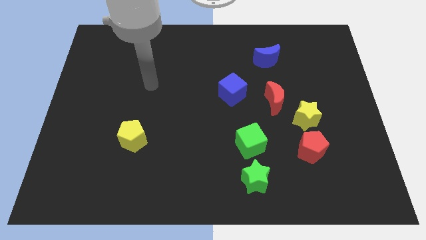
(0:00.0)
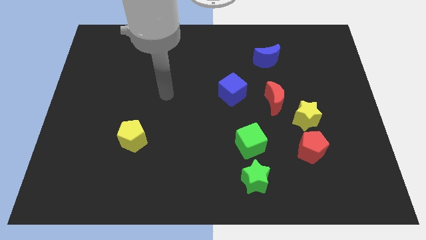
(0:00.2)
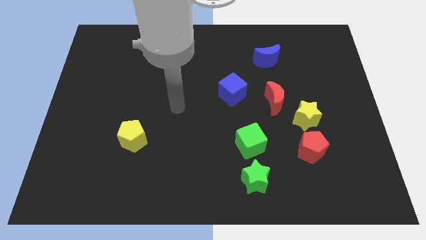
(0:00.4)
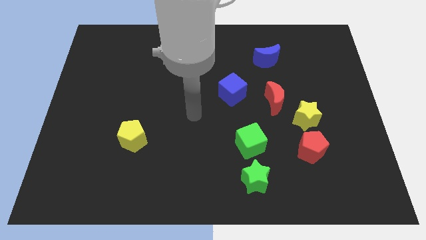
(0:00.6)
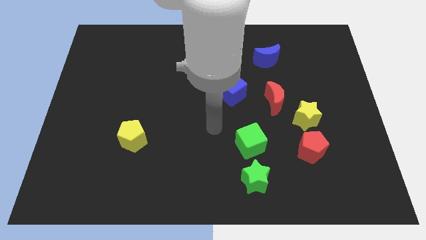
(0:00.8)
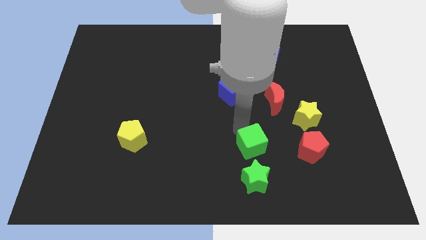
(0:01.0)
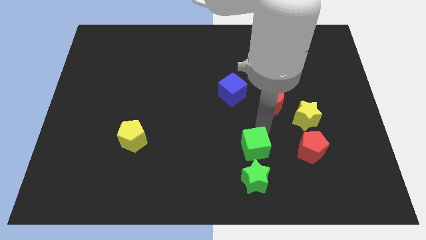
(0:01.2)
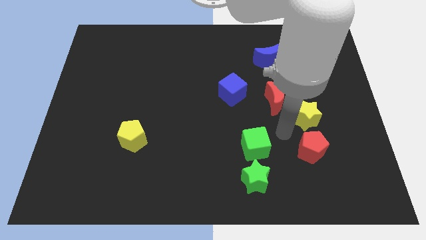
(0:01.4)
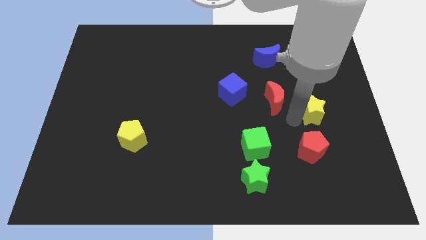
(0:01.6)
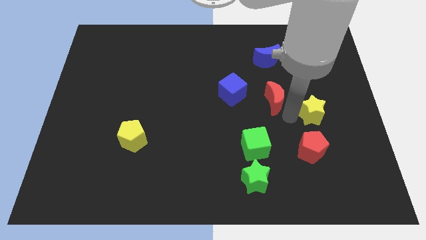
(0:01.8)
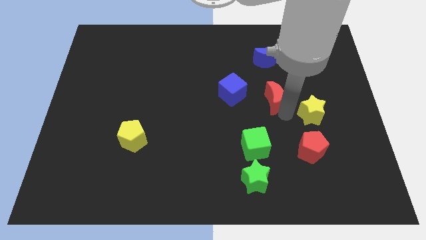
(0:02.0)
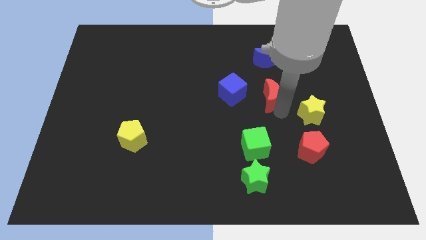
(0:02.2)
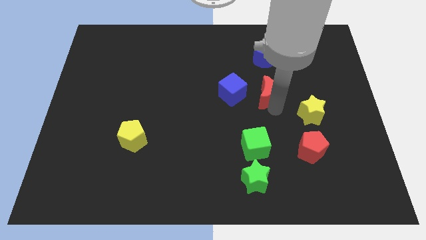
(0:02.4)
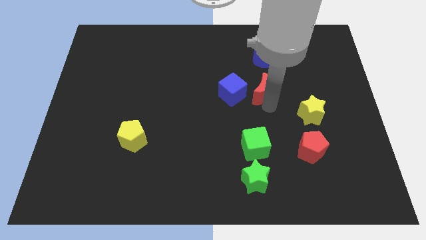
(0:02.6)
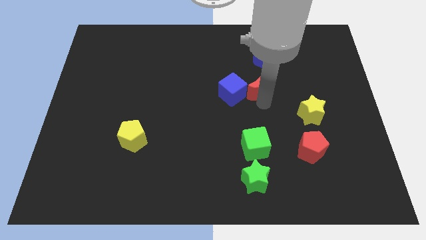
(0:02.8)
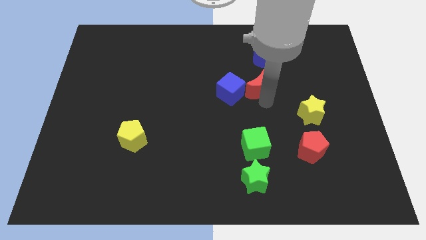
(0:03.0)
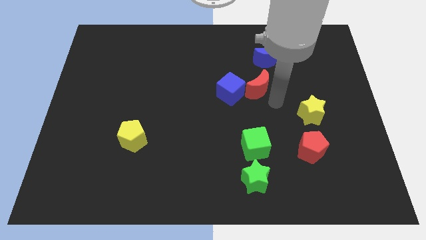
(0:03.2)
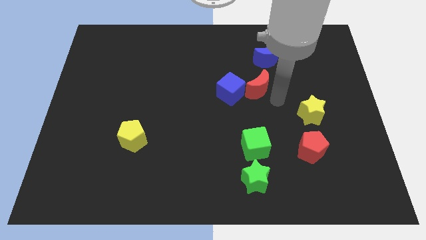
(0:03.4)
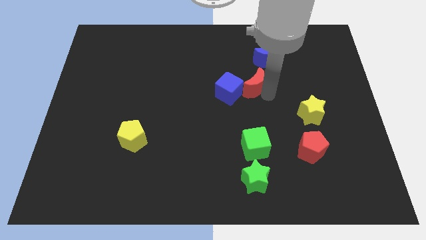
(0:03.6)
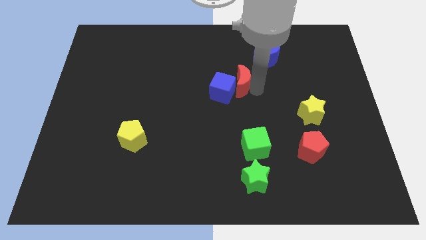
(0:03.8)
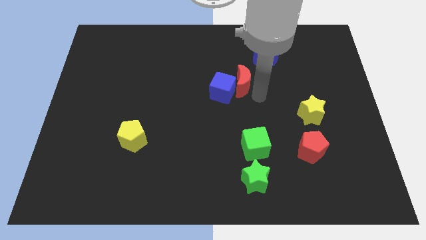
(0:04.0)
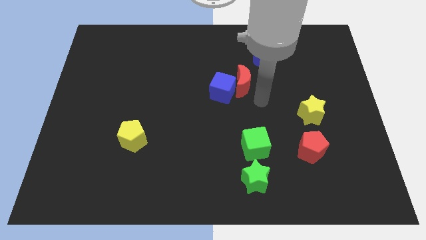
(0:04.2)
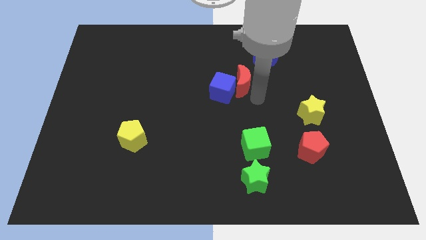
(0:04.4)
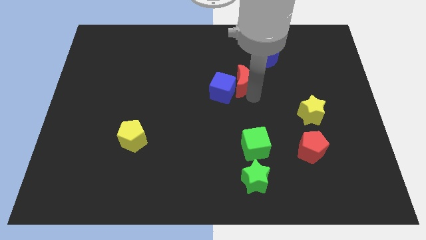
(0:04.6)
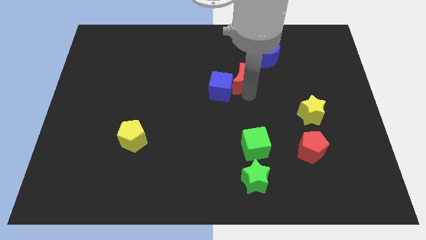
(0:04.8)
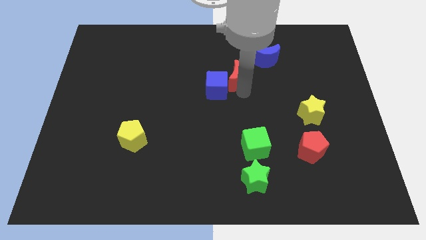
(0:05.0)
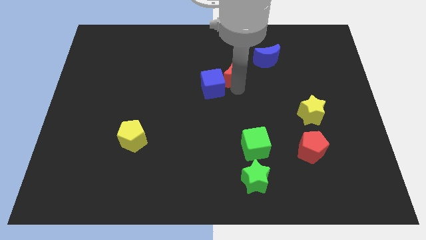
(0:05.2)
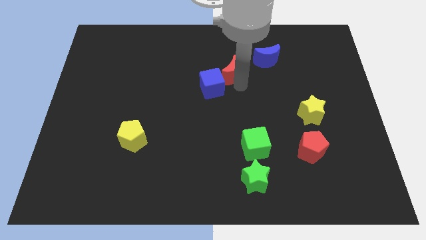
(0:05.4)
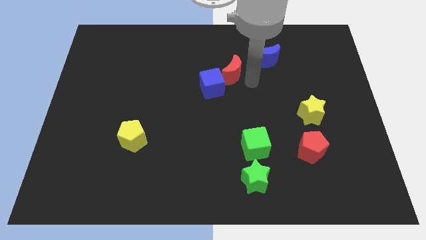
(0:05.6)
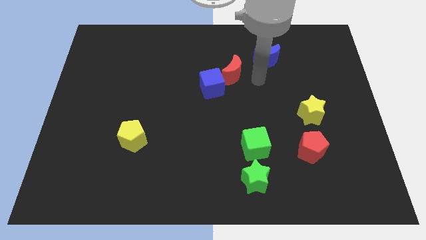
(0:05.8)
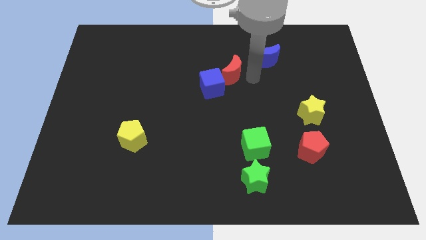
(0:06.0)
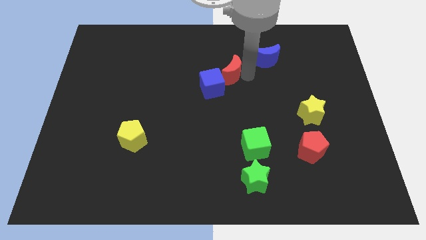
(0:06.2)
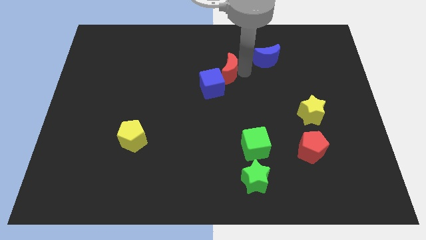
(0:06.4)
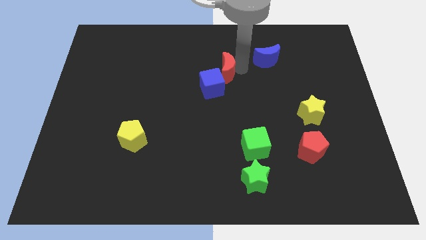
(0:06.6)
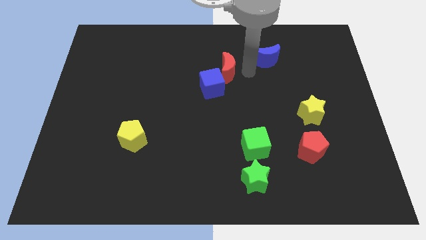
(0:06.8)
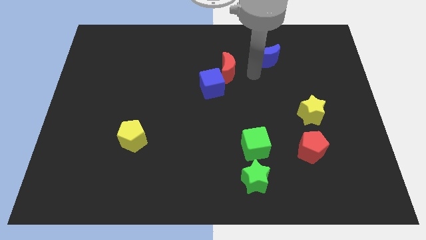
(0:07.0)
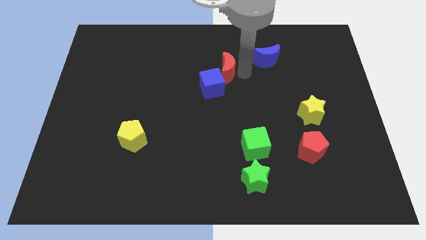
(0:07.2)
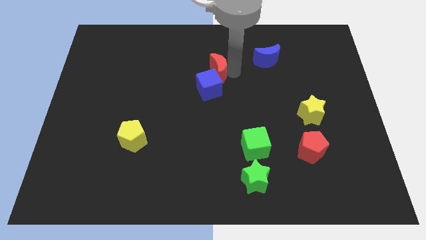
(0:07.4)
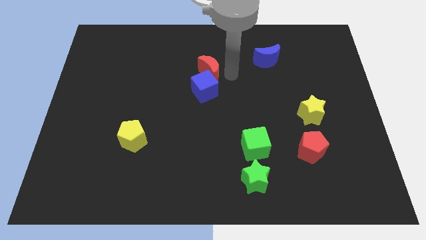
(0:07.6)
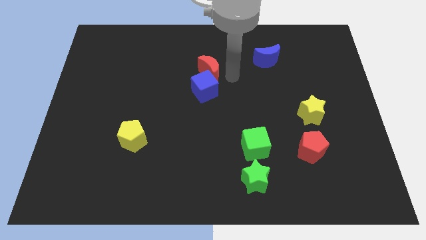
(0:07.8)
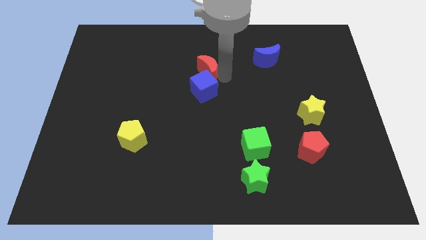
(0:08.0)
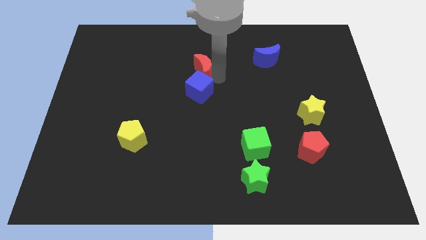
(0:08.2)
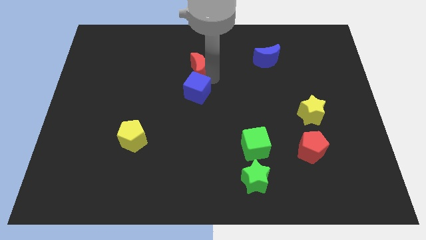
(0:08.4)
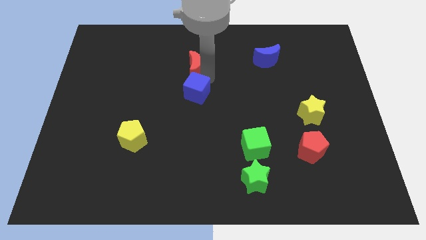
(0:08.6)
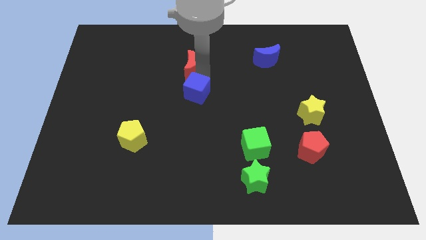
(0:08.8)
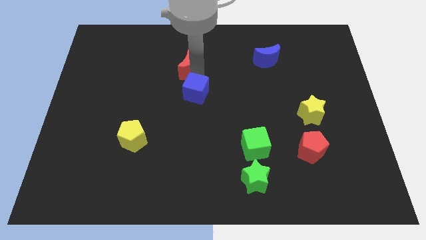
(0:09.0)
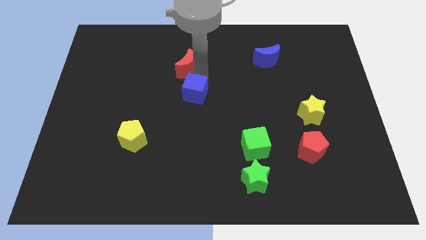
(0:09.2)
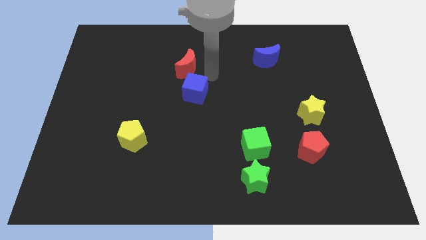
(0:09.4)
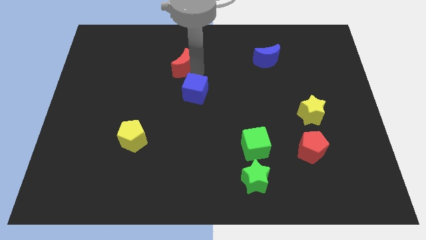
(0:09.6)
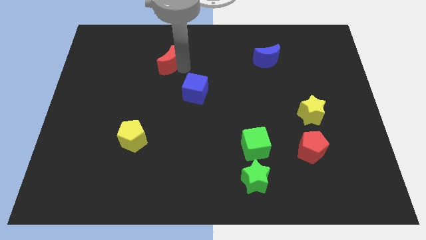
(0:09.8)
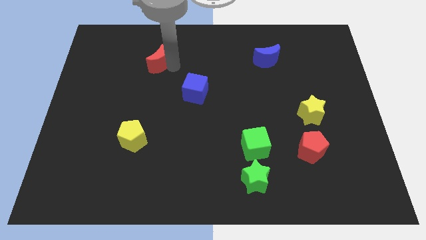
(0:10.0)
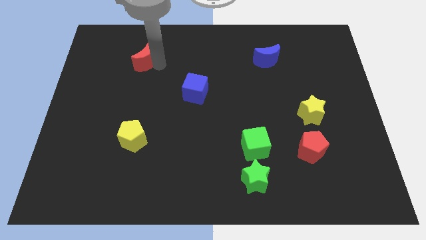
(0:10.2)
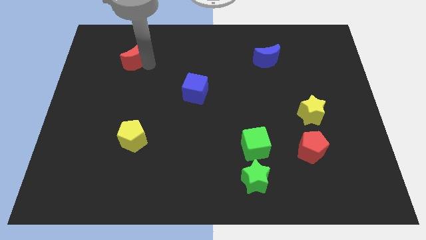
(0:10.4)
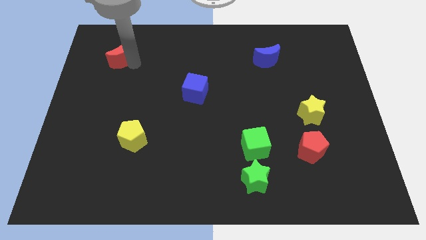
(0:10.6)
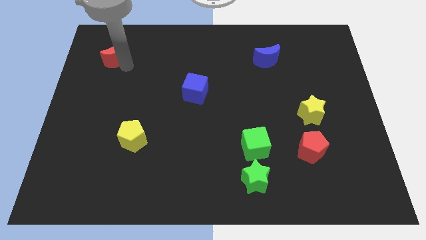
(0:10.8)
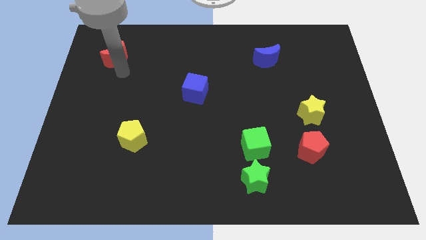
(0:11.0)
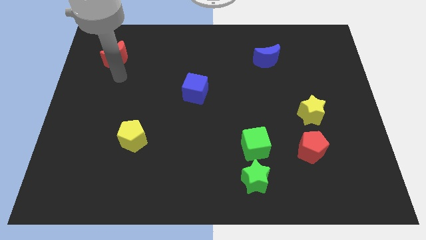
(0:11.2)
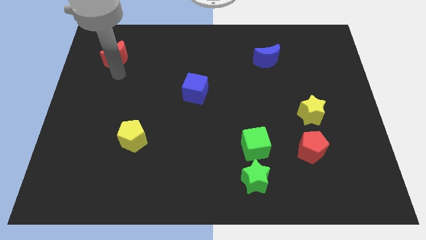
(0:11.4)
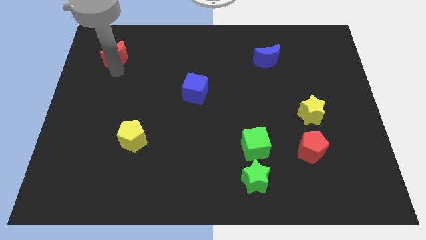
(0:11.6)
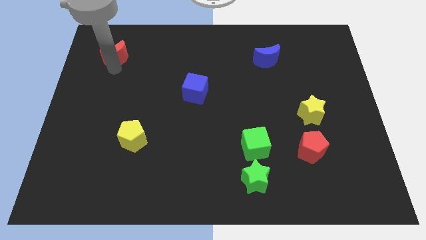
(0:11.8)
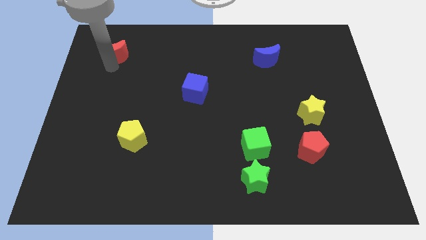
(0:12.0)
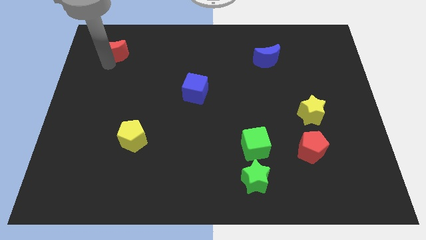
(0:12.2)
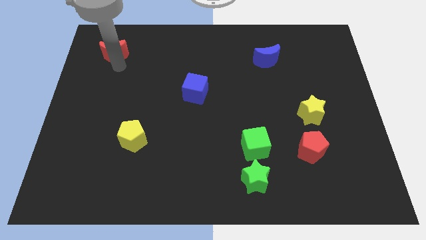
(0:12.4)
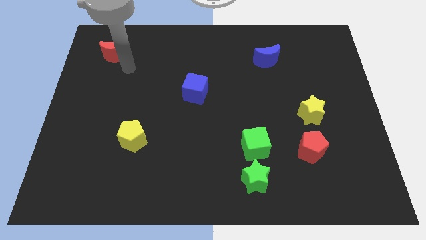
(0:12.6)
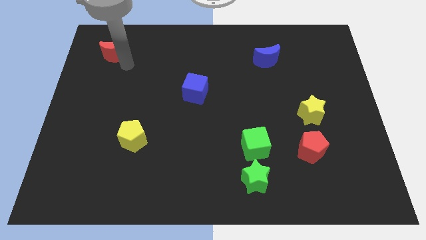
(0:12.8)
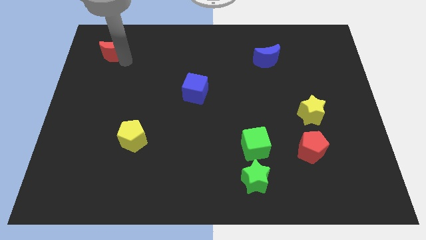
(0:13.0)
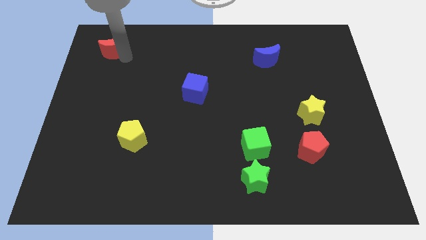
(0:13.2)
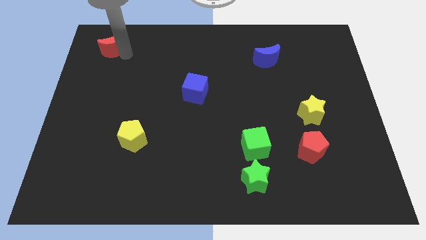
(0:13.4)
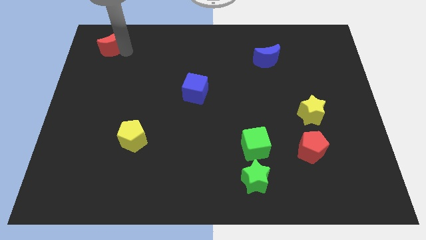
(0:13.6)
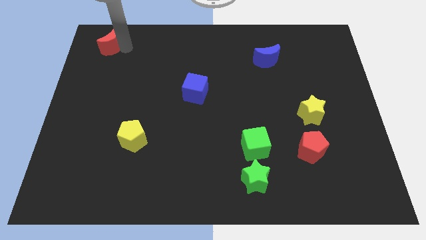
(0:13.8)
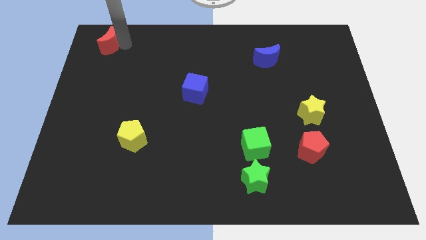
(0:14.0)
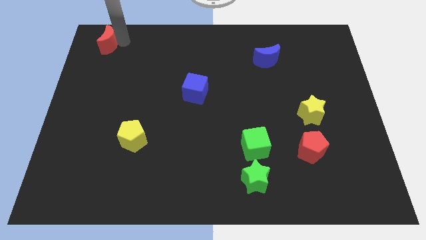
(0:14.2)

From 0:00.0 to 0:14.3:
put the red moon to the top left

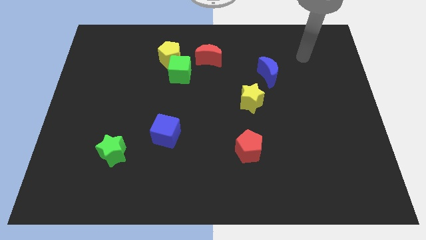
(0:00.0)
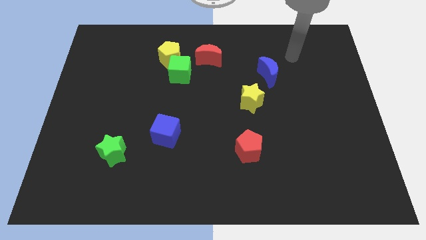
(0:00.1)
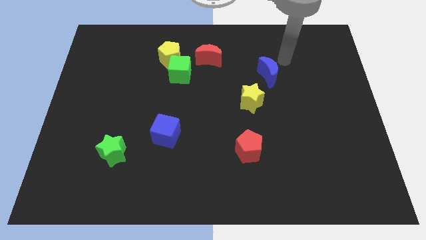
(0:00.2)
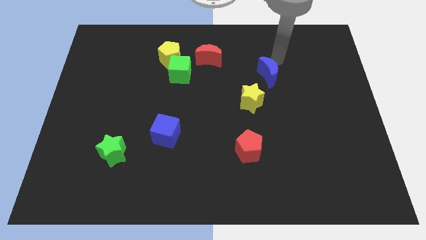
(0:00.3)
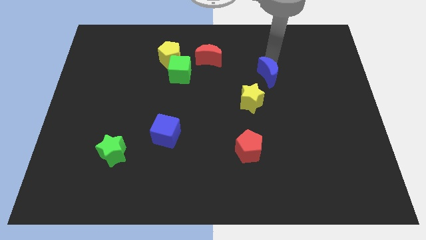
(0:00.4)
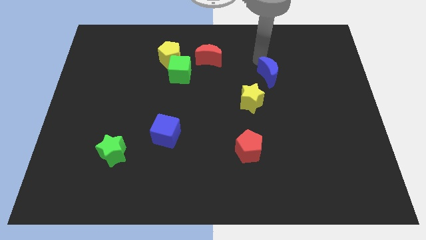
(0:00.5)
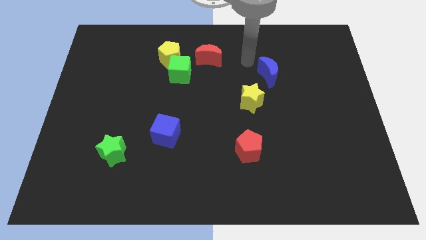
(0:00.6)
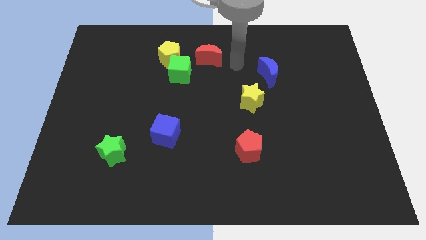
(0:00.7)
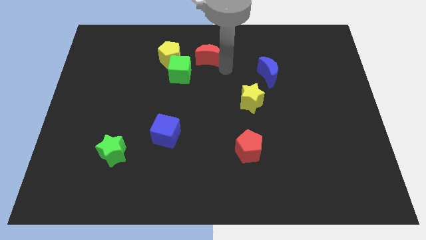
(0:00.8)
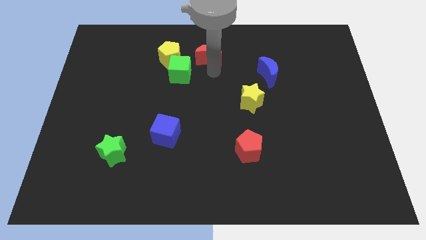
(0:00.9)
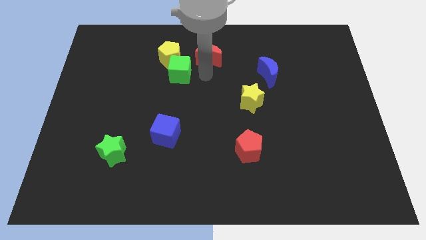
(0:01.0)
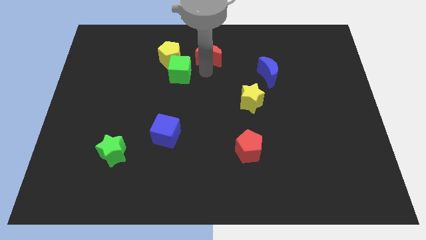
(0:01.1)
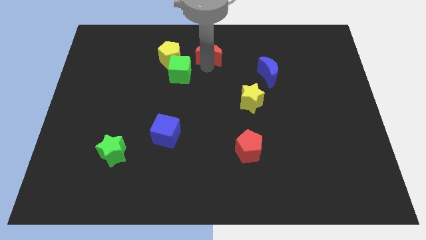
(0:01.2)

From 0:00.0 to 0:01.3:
push the red moon to the top
